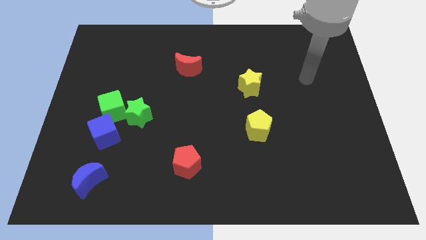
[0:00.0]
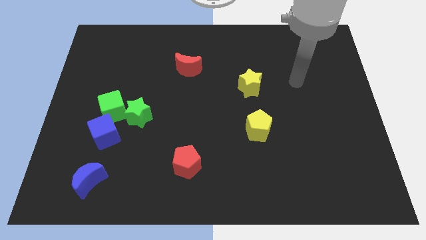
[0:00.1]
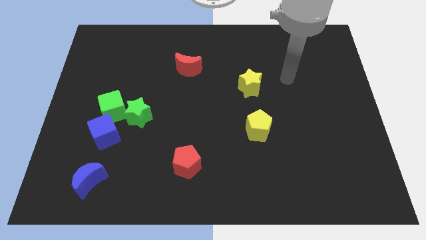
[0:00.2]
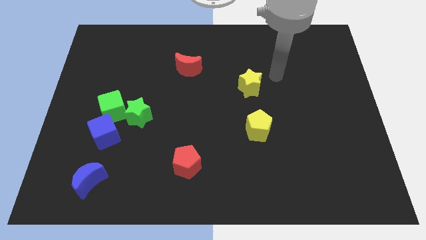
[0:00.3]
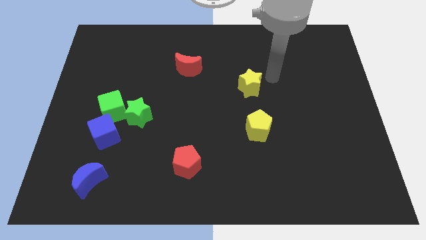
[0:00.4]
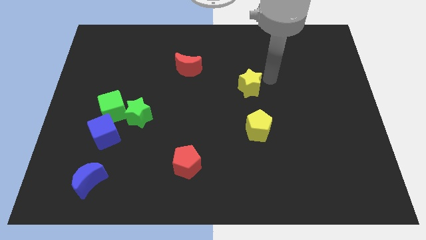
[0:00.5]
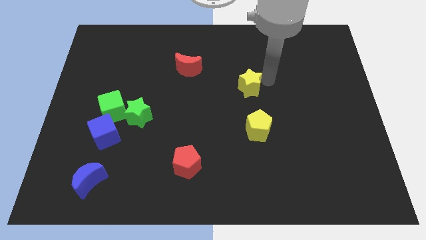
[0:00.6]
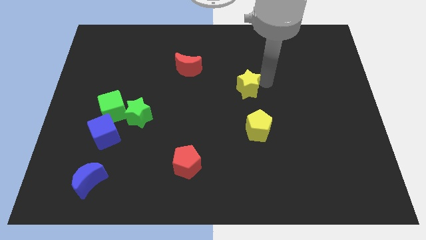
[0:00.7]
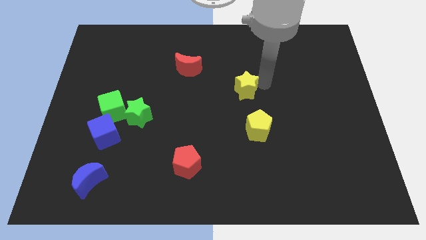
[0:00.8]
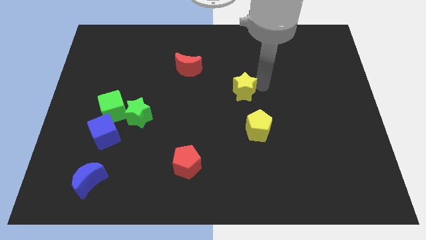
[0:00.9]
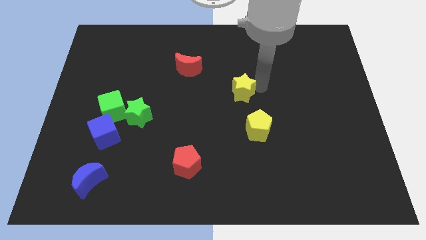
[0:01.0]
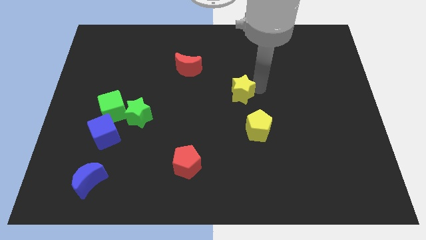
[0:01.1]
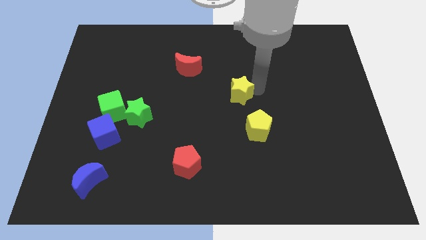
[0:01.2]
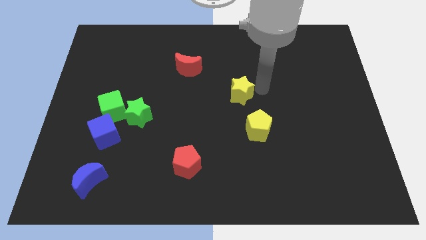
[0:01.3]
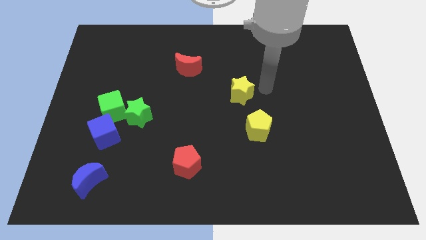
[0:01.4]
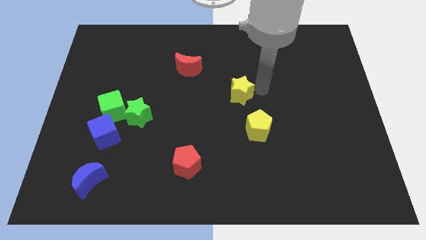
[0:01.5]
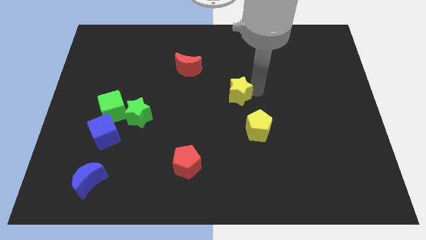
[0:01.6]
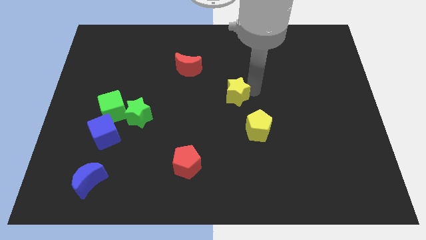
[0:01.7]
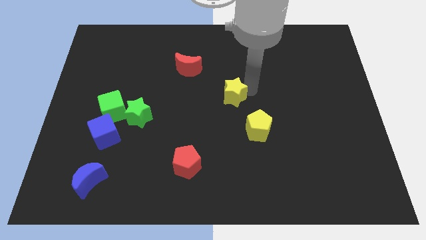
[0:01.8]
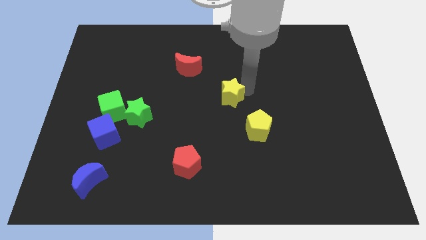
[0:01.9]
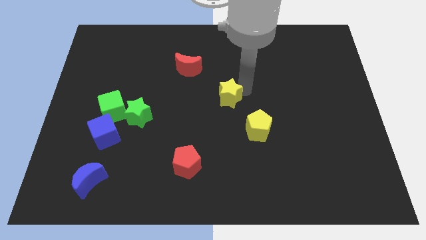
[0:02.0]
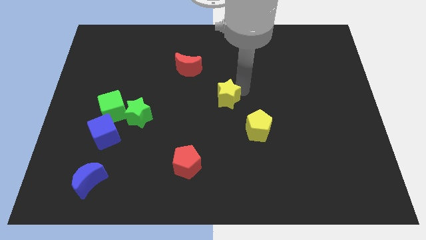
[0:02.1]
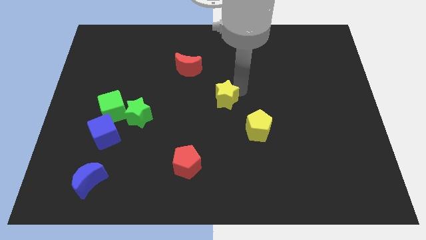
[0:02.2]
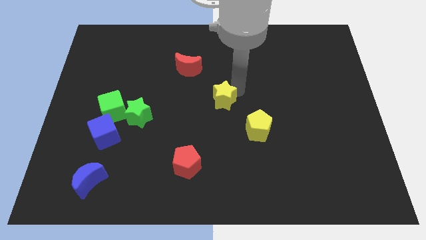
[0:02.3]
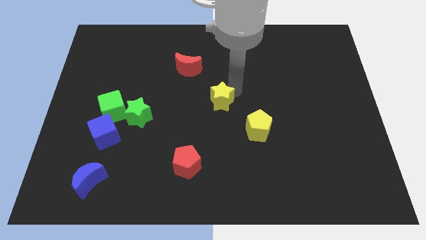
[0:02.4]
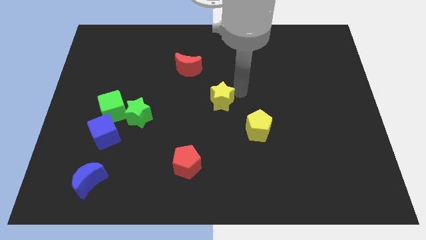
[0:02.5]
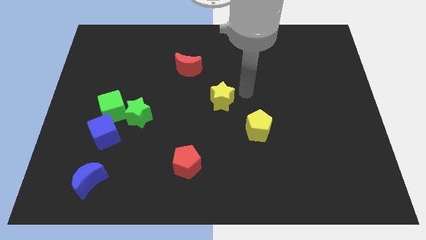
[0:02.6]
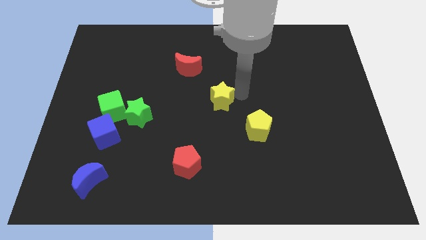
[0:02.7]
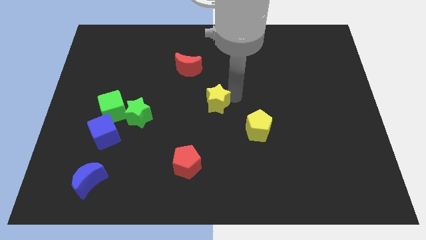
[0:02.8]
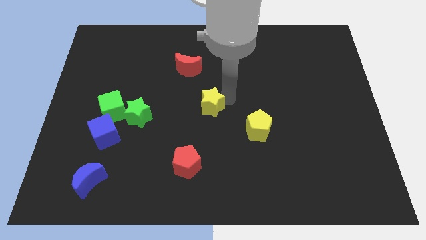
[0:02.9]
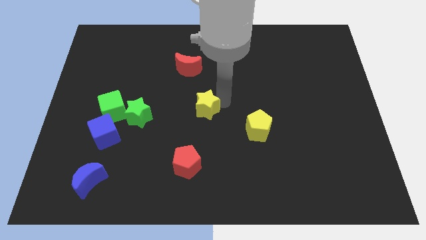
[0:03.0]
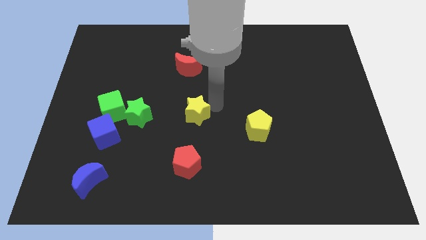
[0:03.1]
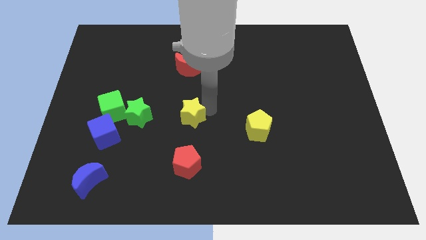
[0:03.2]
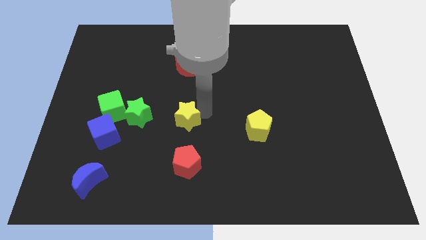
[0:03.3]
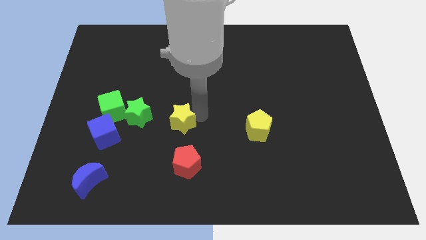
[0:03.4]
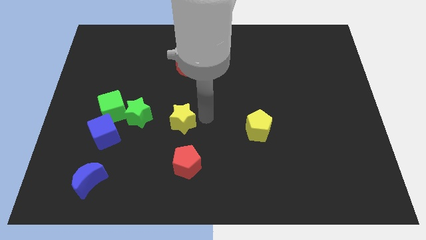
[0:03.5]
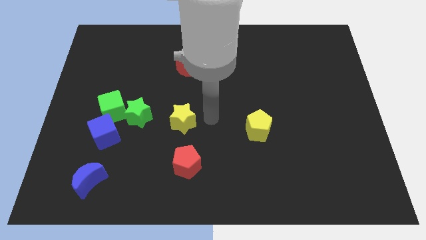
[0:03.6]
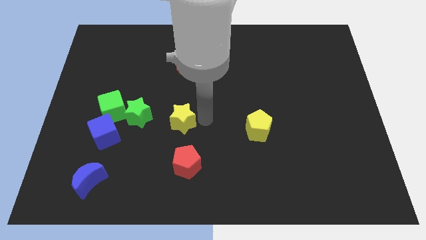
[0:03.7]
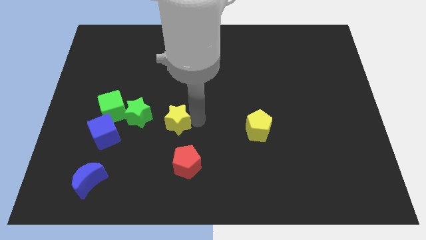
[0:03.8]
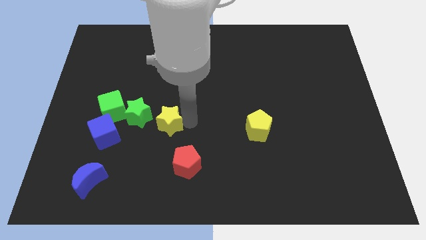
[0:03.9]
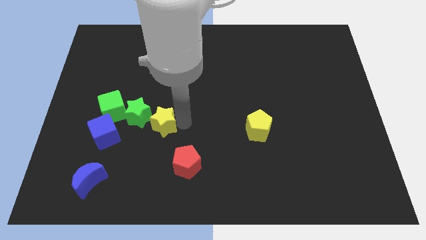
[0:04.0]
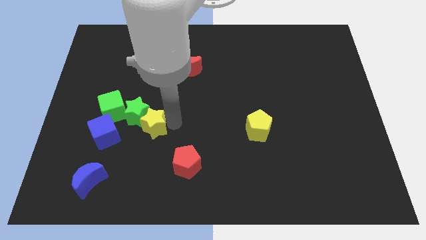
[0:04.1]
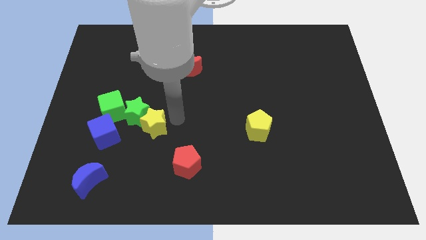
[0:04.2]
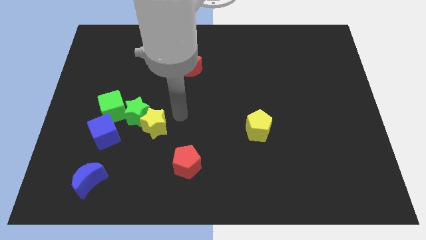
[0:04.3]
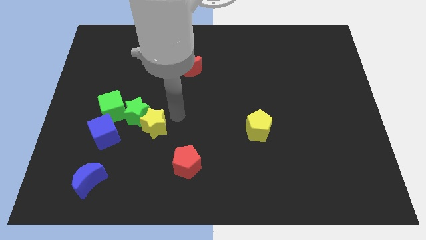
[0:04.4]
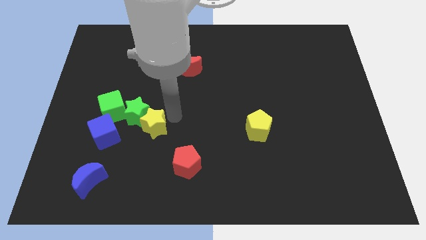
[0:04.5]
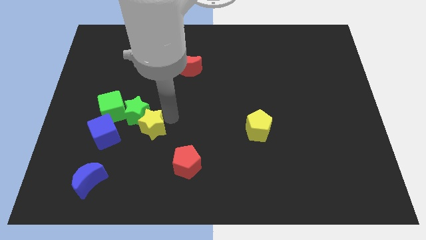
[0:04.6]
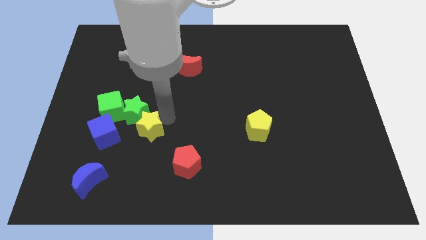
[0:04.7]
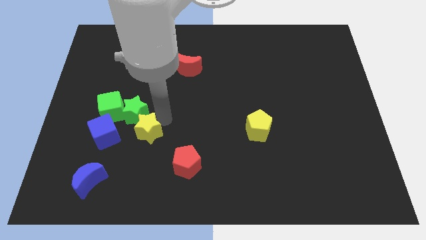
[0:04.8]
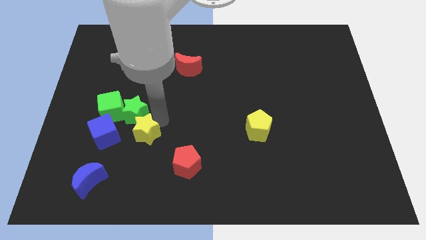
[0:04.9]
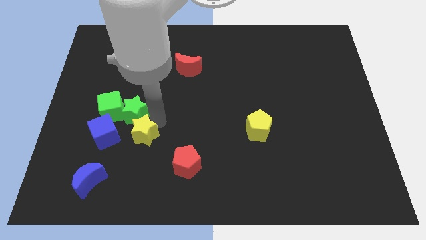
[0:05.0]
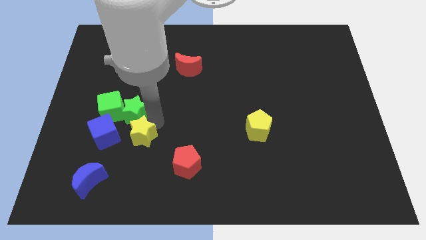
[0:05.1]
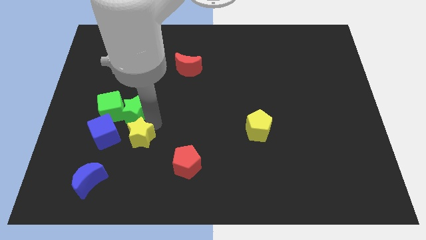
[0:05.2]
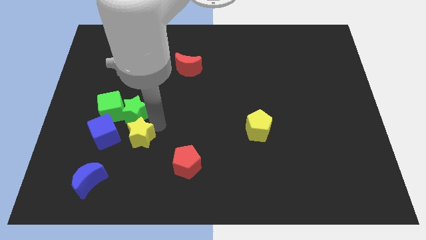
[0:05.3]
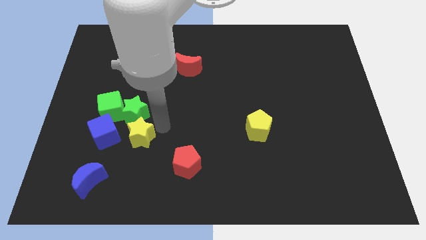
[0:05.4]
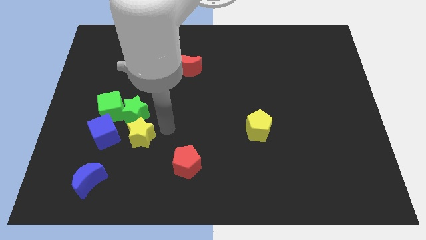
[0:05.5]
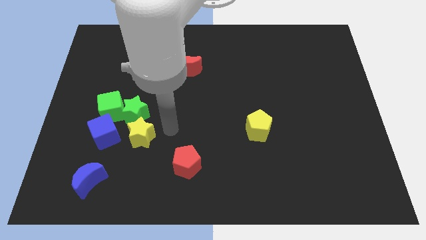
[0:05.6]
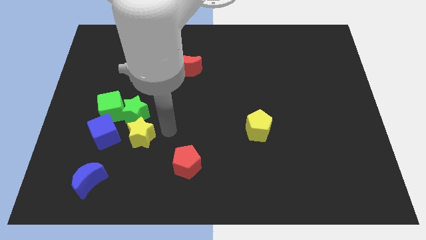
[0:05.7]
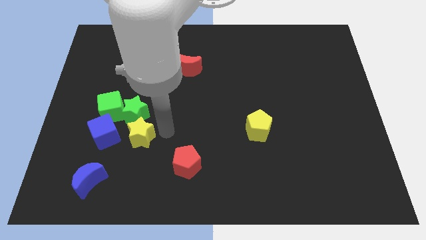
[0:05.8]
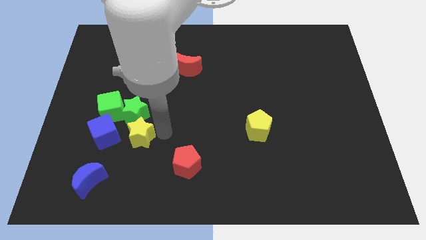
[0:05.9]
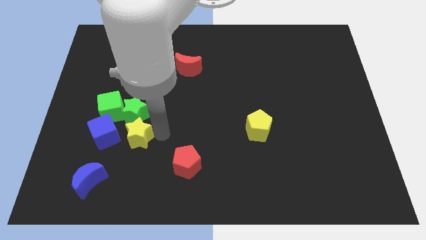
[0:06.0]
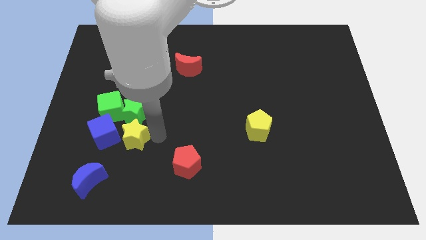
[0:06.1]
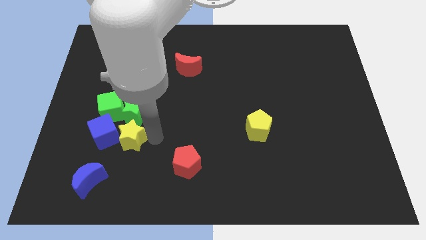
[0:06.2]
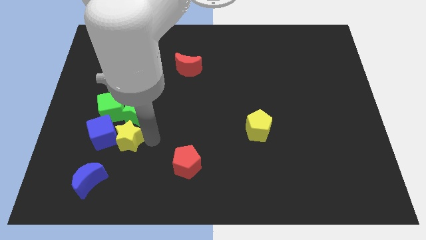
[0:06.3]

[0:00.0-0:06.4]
move the yellow star towards the blue cube
